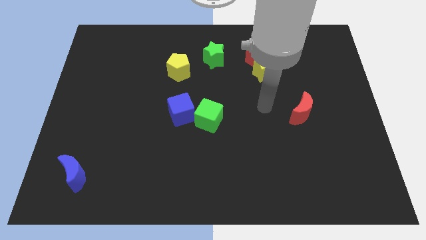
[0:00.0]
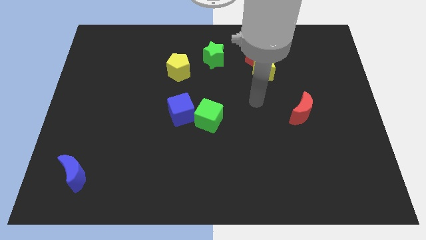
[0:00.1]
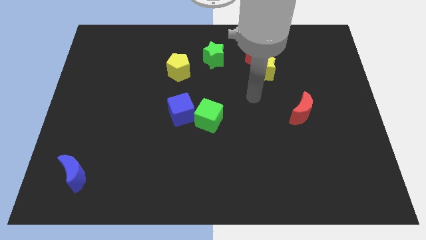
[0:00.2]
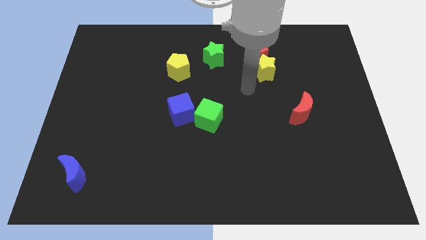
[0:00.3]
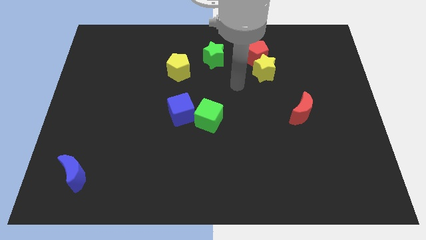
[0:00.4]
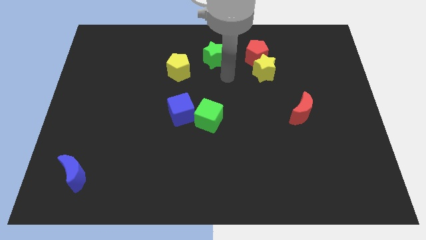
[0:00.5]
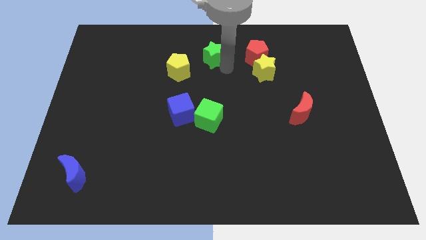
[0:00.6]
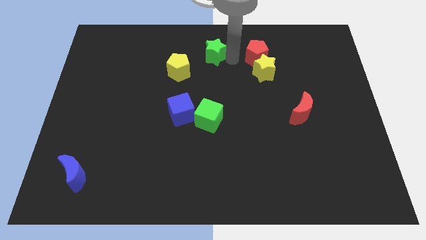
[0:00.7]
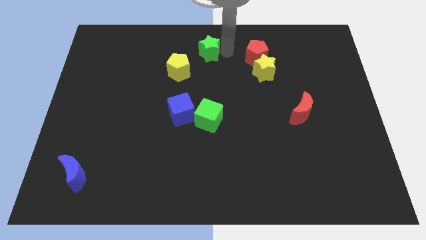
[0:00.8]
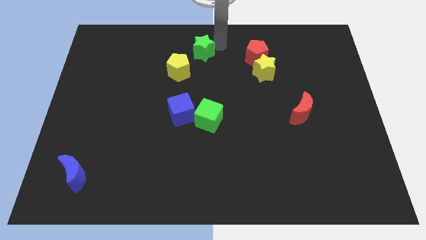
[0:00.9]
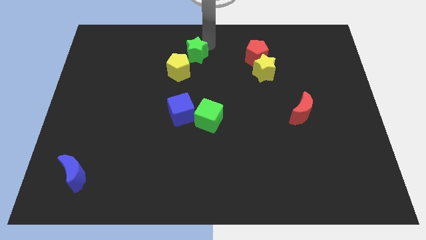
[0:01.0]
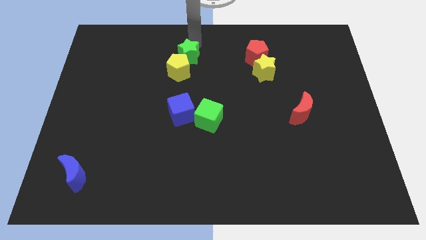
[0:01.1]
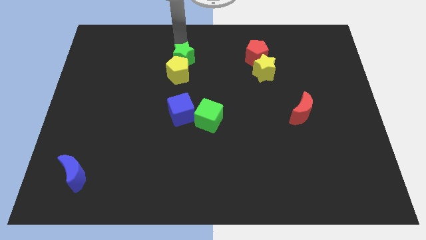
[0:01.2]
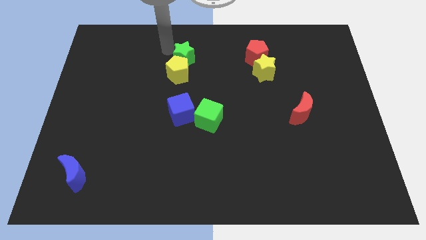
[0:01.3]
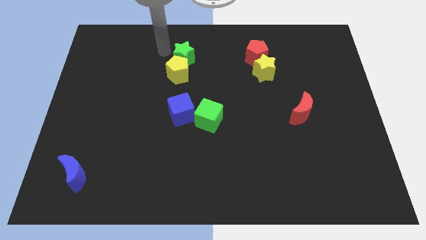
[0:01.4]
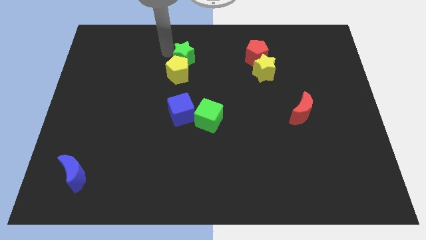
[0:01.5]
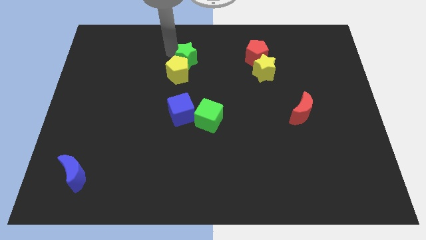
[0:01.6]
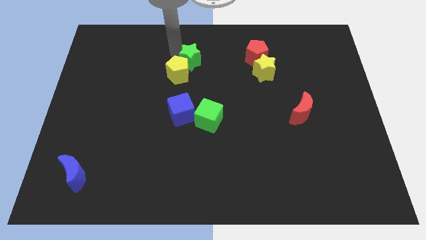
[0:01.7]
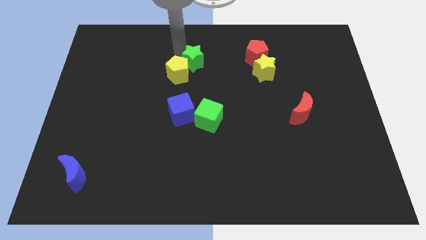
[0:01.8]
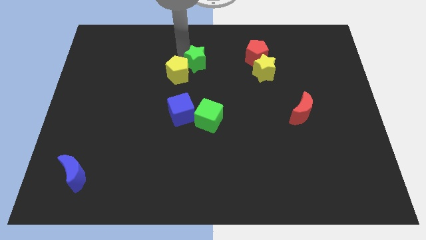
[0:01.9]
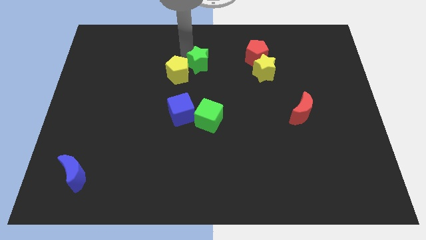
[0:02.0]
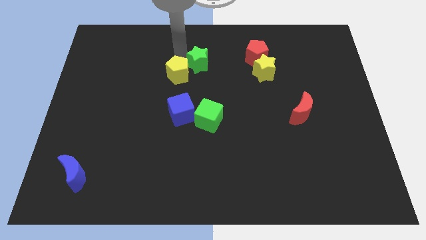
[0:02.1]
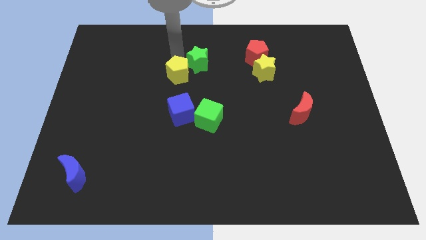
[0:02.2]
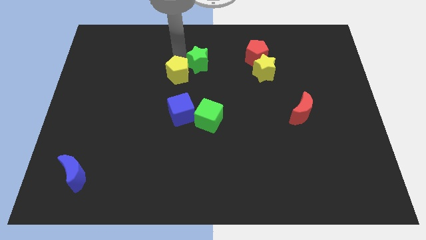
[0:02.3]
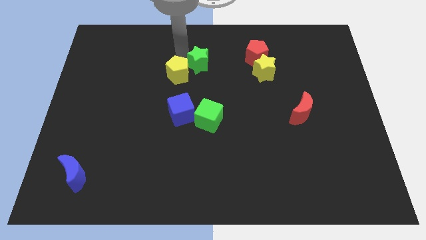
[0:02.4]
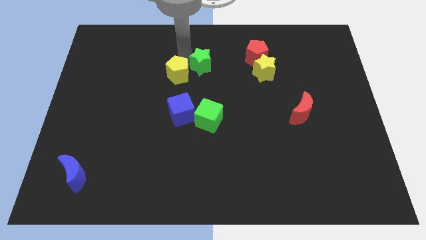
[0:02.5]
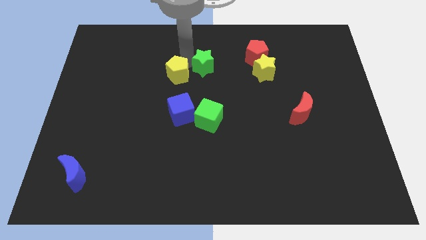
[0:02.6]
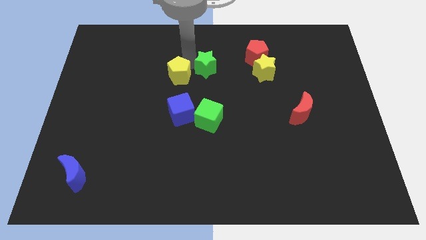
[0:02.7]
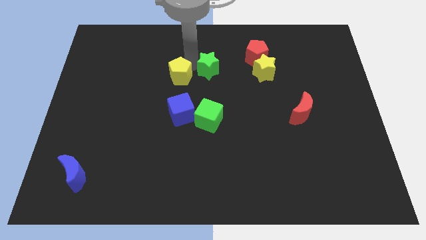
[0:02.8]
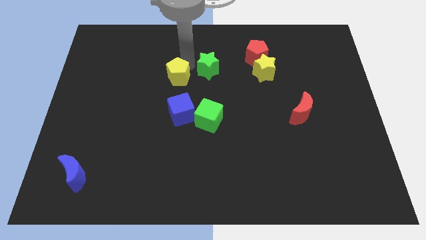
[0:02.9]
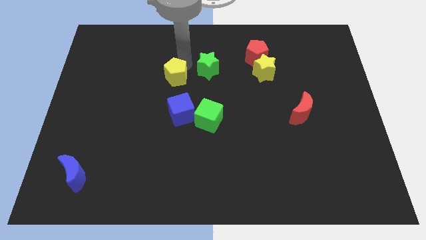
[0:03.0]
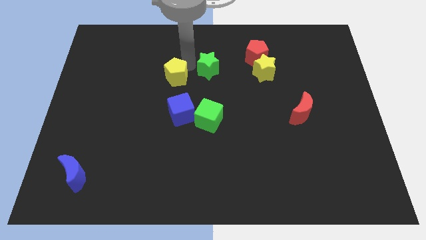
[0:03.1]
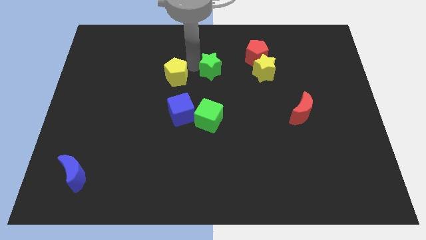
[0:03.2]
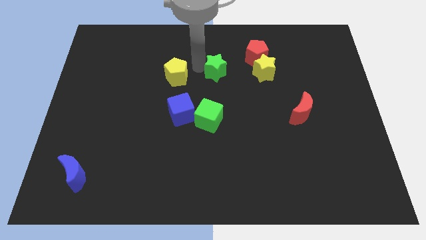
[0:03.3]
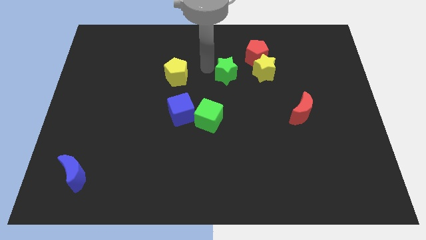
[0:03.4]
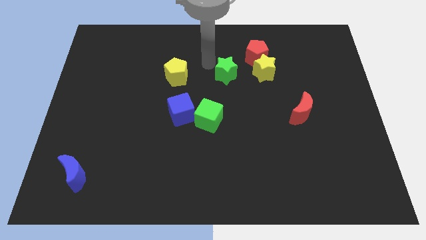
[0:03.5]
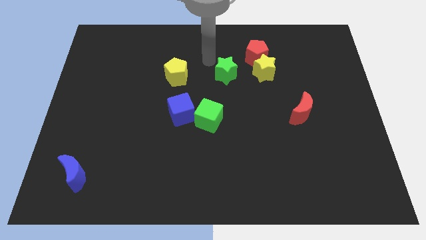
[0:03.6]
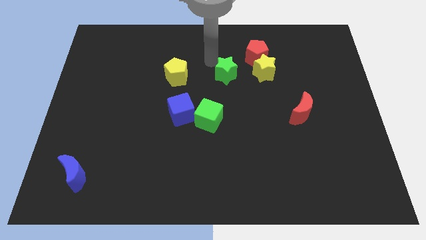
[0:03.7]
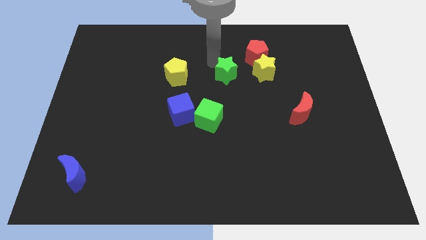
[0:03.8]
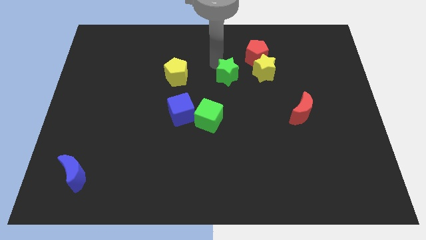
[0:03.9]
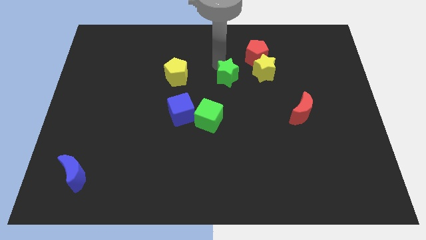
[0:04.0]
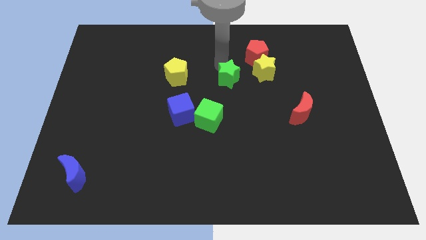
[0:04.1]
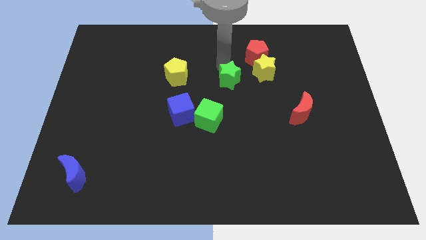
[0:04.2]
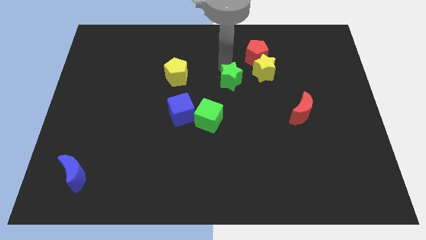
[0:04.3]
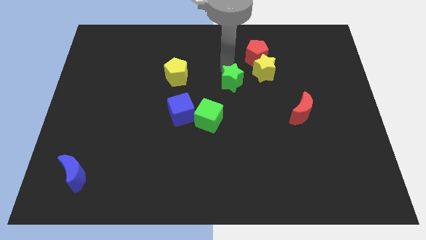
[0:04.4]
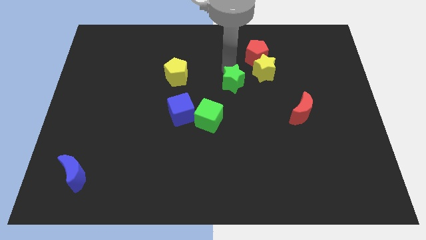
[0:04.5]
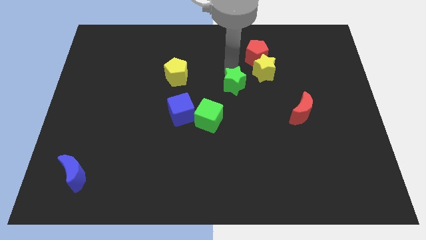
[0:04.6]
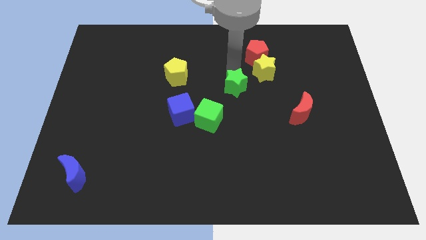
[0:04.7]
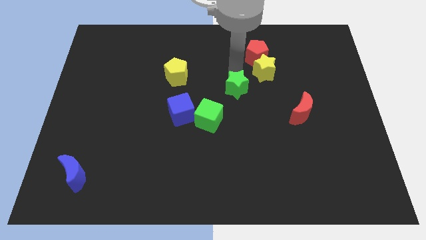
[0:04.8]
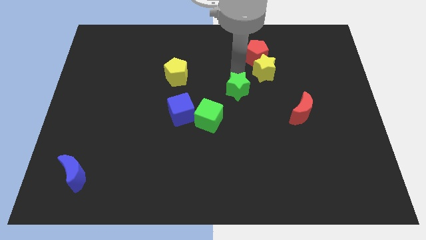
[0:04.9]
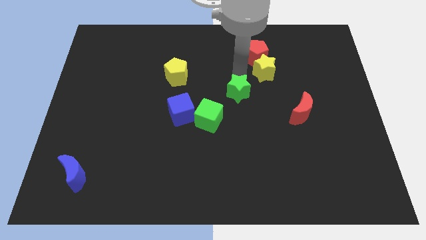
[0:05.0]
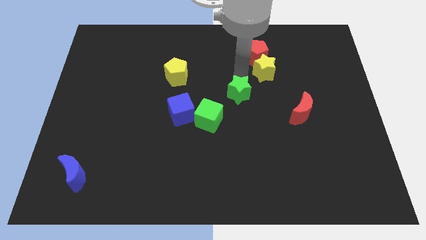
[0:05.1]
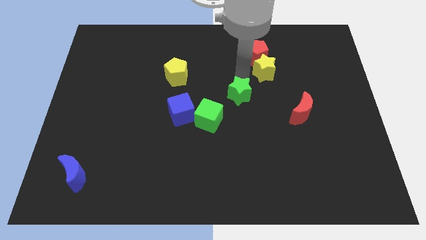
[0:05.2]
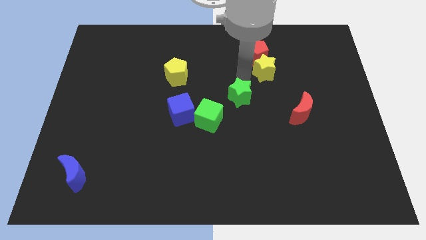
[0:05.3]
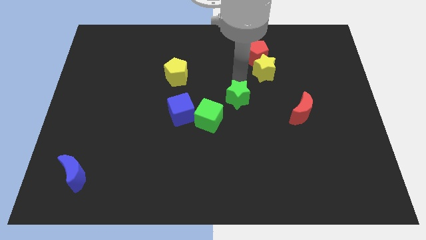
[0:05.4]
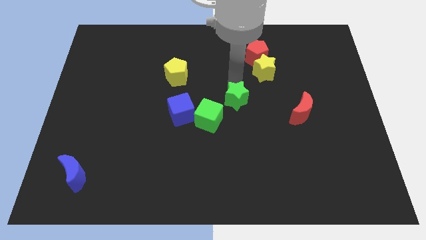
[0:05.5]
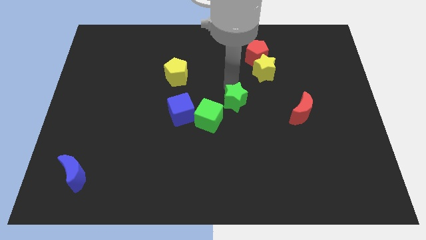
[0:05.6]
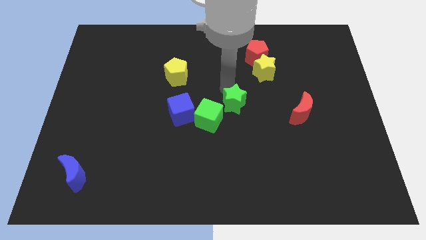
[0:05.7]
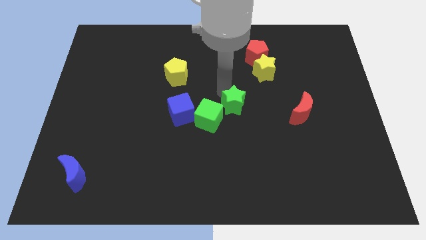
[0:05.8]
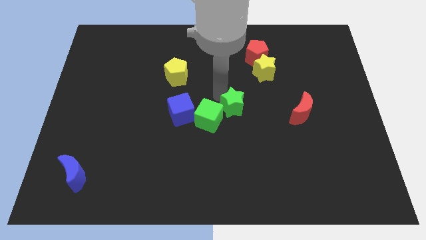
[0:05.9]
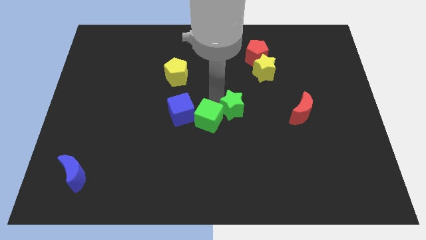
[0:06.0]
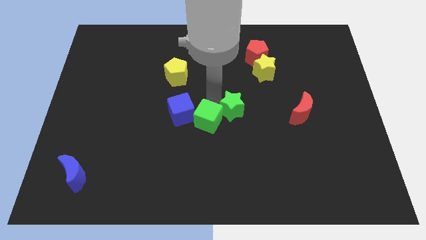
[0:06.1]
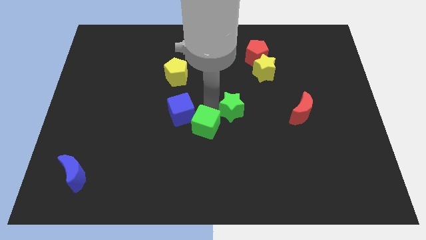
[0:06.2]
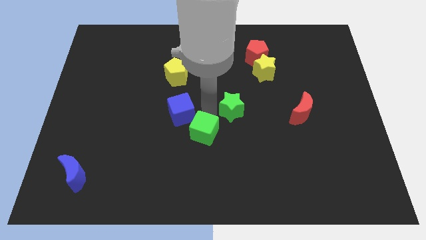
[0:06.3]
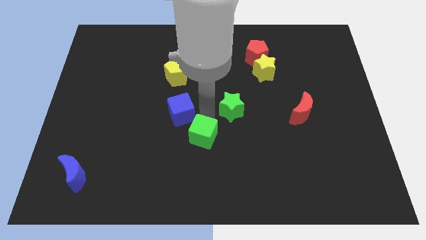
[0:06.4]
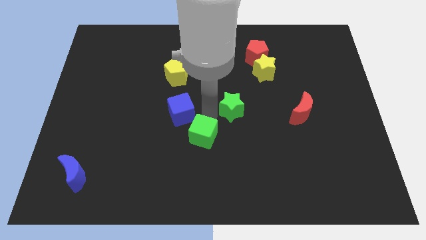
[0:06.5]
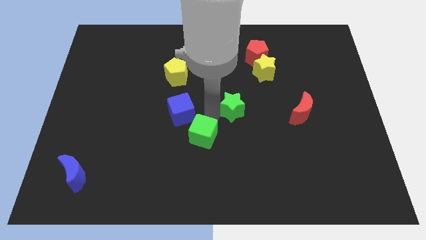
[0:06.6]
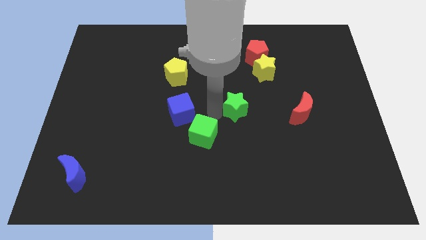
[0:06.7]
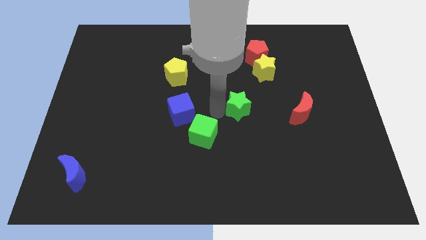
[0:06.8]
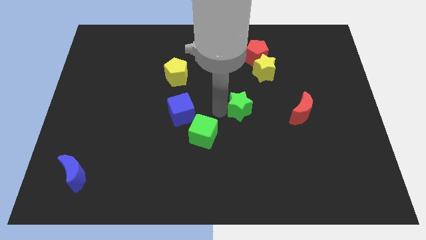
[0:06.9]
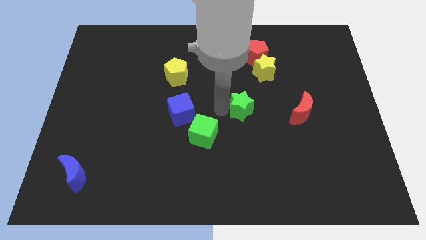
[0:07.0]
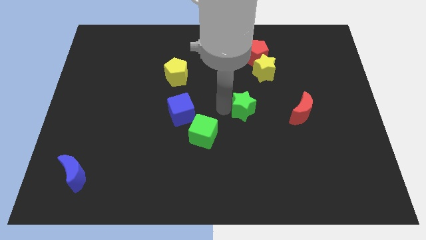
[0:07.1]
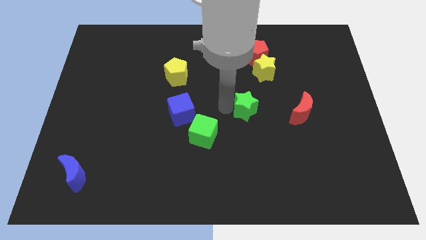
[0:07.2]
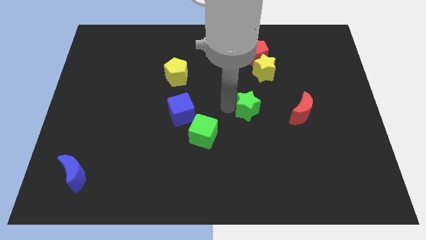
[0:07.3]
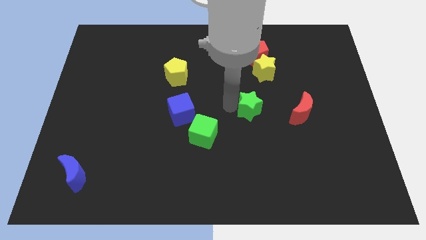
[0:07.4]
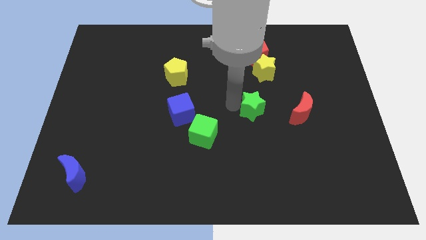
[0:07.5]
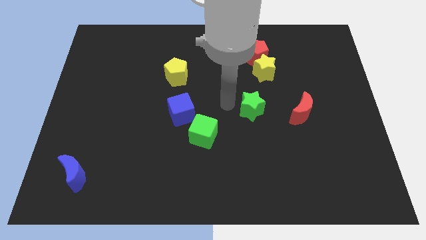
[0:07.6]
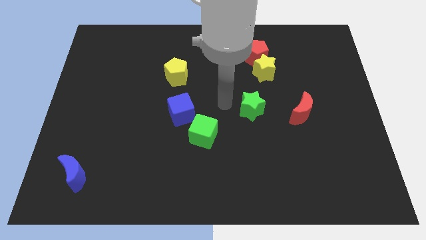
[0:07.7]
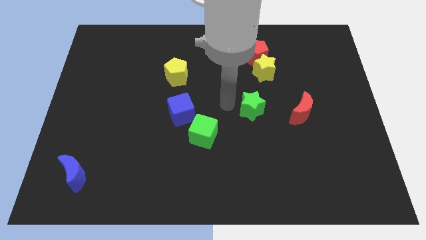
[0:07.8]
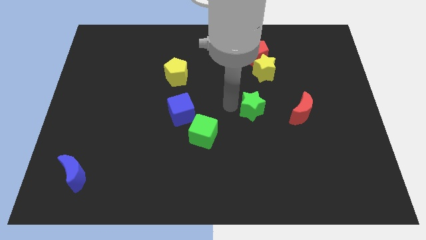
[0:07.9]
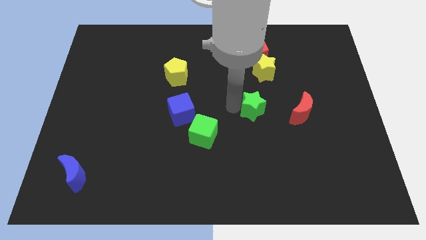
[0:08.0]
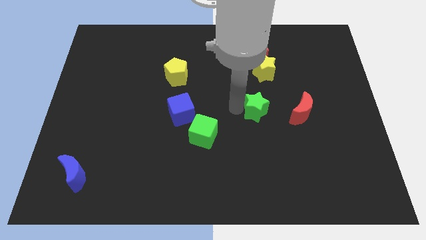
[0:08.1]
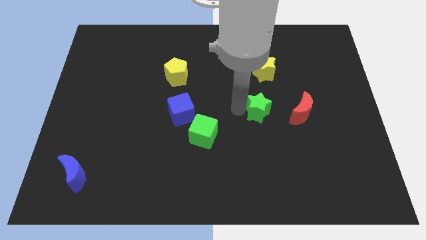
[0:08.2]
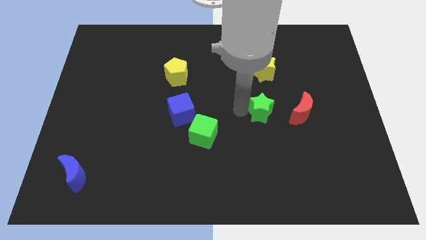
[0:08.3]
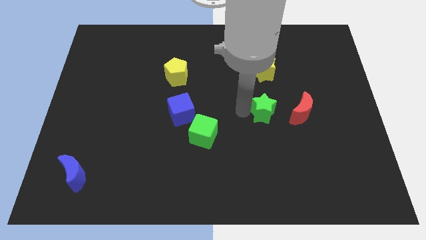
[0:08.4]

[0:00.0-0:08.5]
push the green star down and then right
